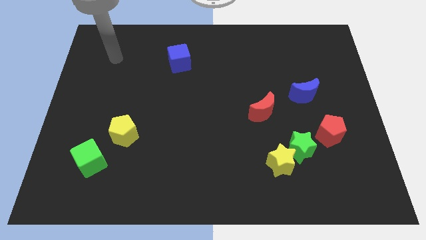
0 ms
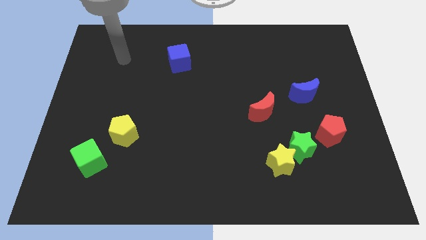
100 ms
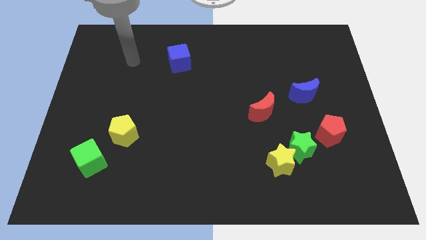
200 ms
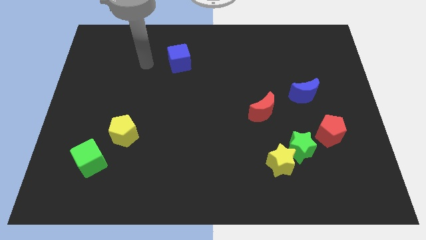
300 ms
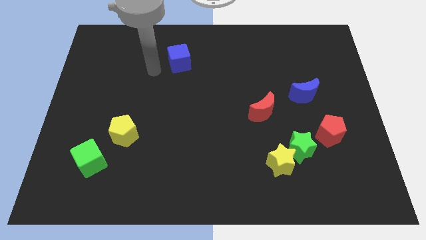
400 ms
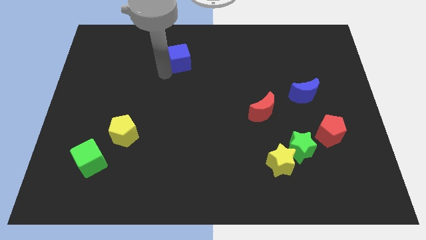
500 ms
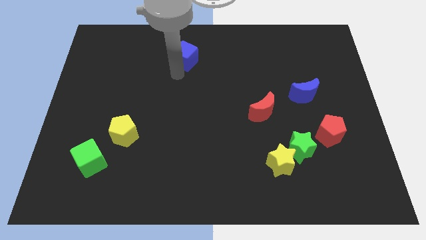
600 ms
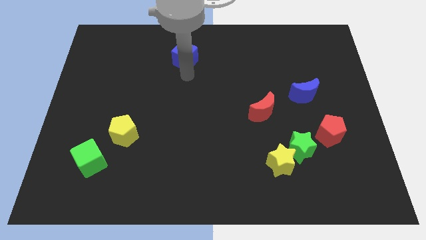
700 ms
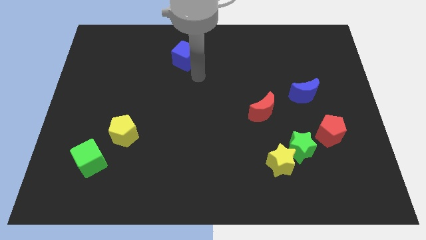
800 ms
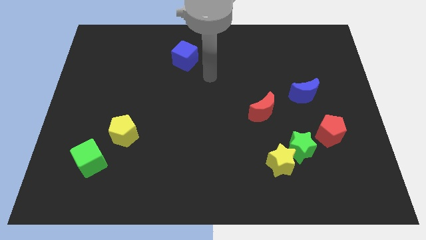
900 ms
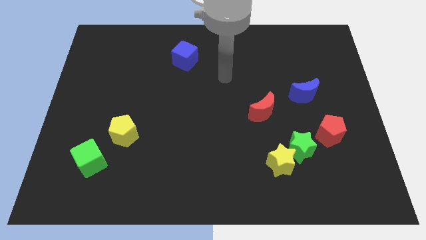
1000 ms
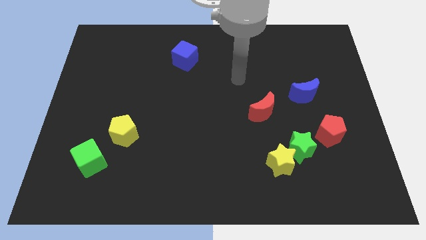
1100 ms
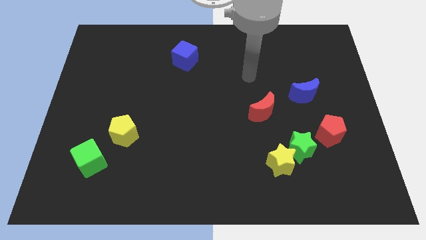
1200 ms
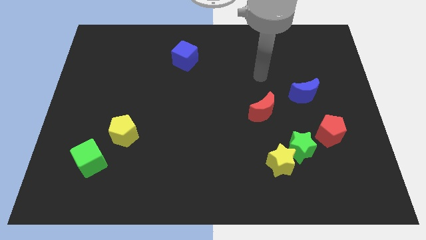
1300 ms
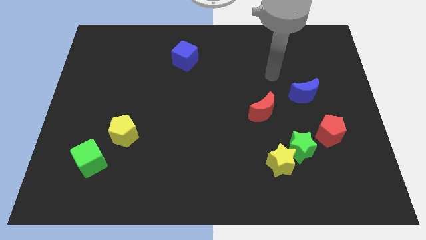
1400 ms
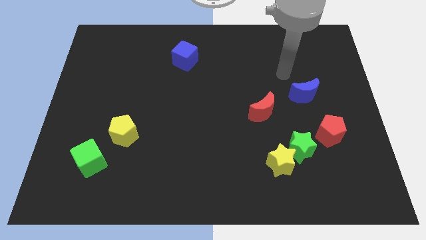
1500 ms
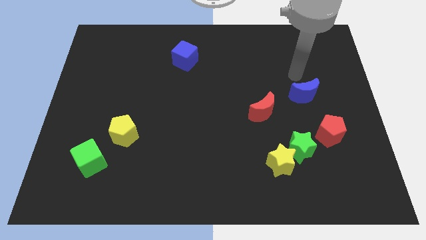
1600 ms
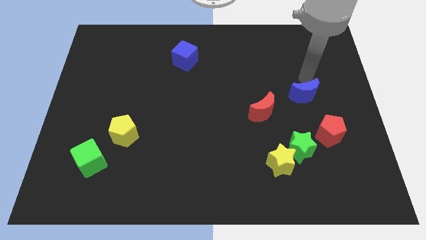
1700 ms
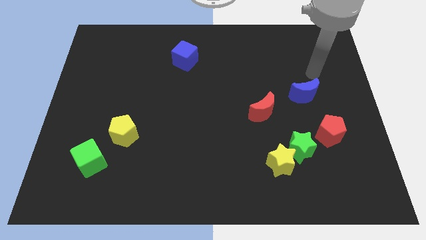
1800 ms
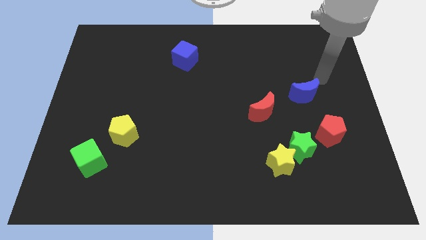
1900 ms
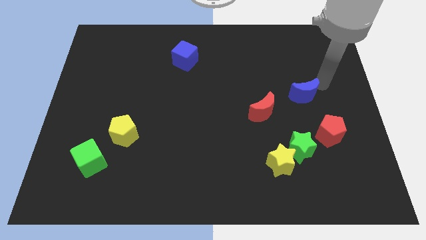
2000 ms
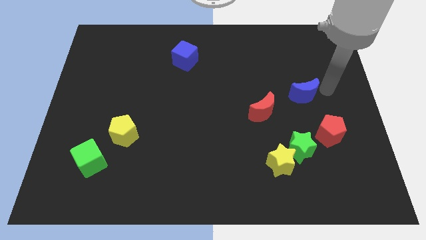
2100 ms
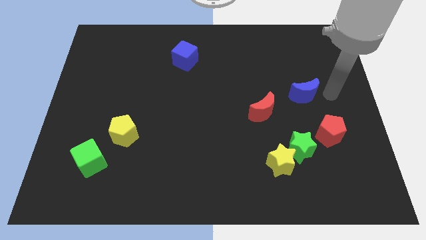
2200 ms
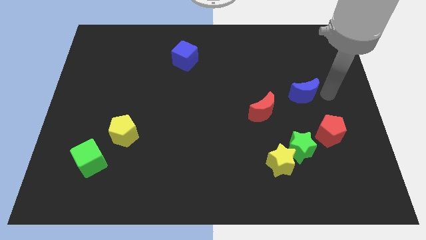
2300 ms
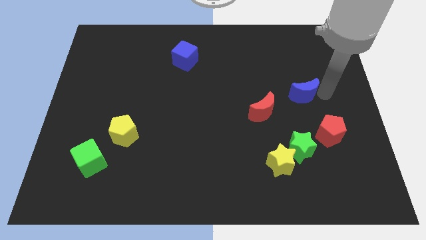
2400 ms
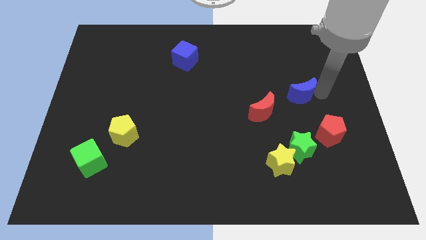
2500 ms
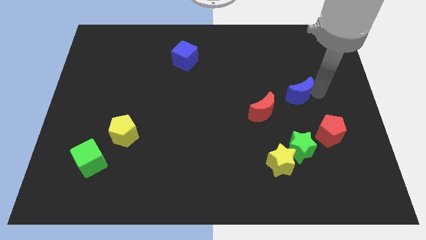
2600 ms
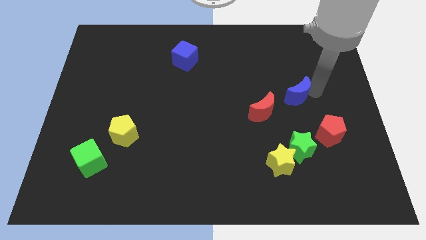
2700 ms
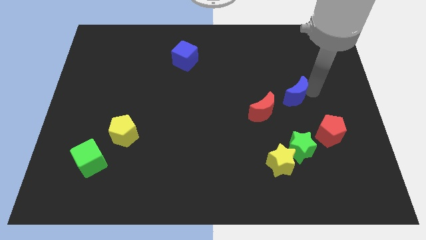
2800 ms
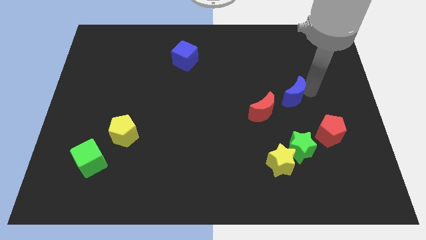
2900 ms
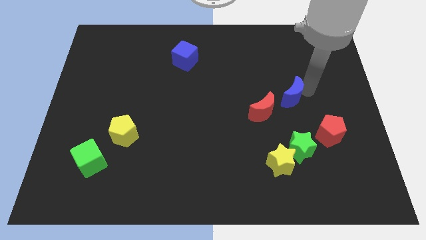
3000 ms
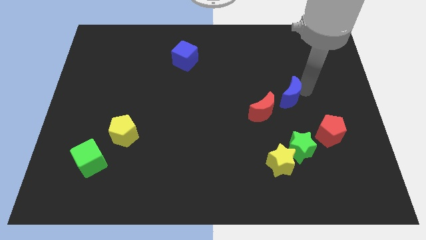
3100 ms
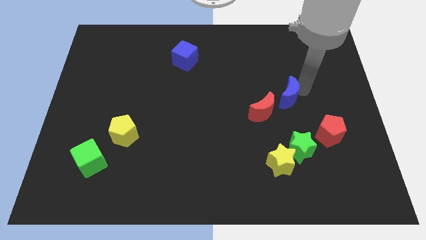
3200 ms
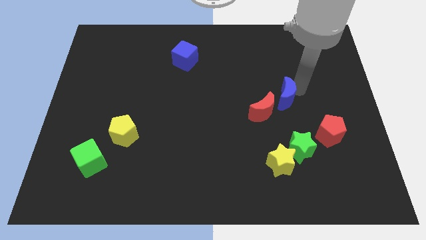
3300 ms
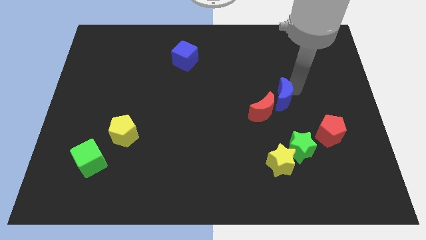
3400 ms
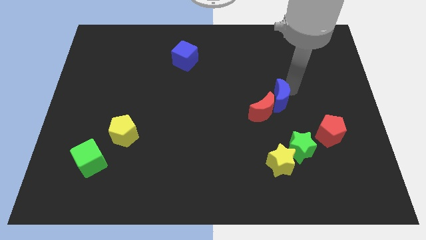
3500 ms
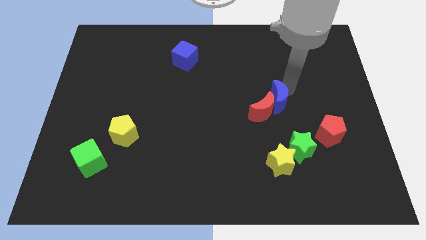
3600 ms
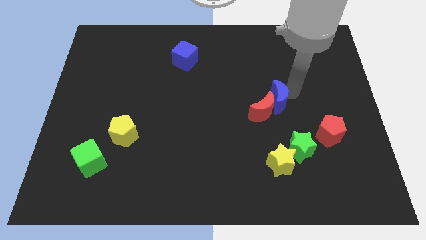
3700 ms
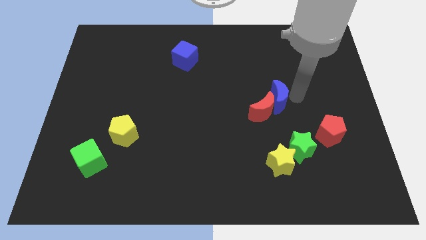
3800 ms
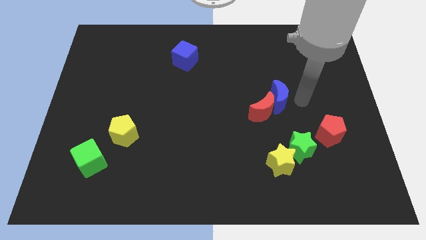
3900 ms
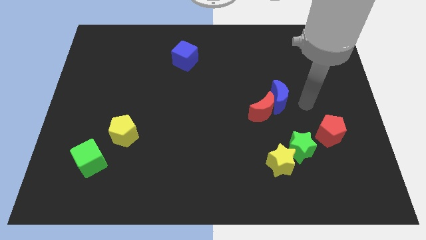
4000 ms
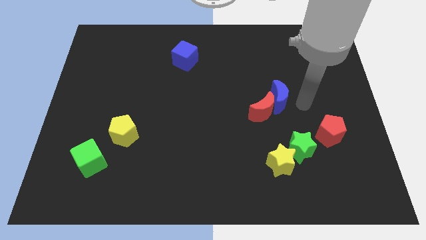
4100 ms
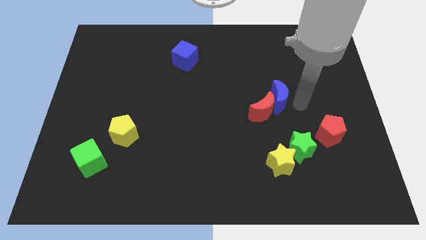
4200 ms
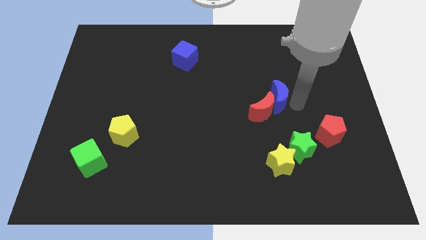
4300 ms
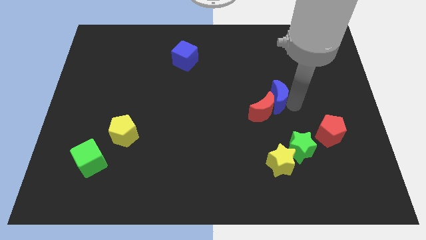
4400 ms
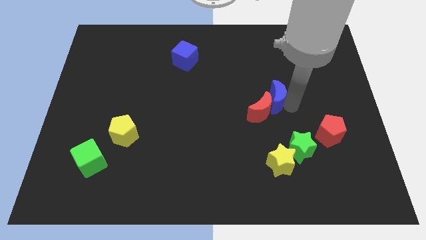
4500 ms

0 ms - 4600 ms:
slightly move the blue moon to the left

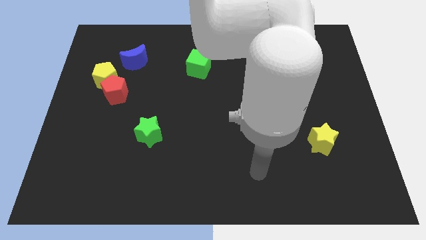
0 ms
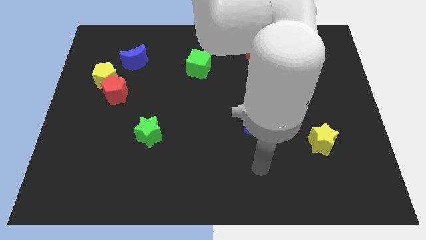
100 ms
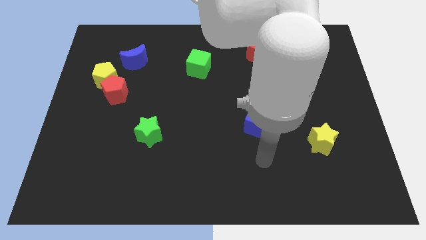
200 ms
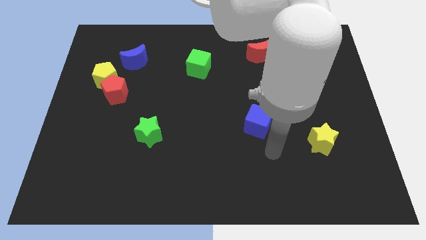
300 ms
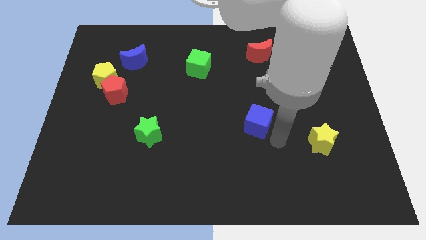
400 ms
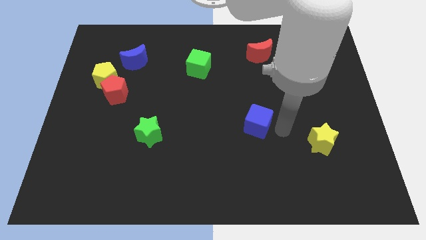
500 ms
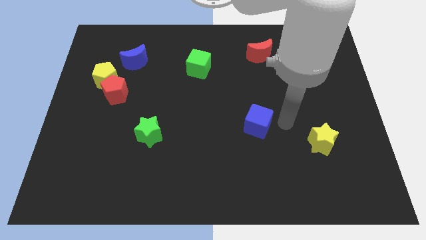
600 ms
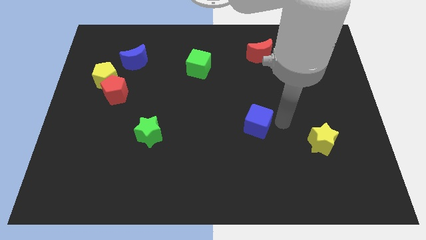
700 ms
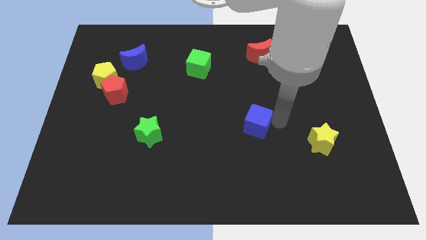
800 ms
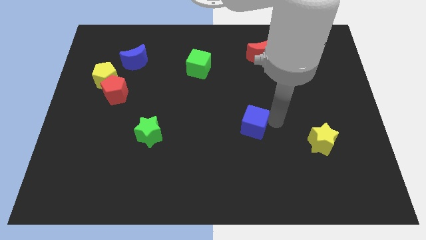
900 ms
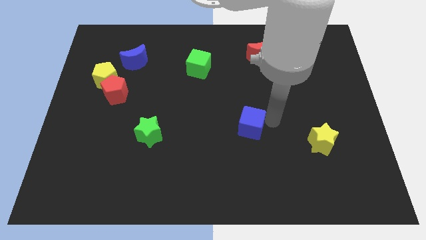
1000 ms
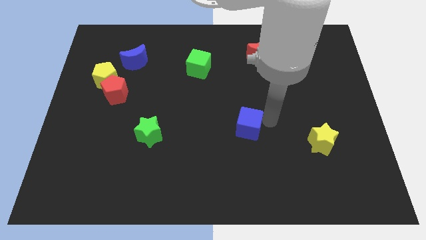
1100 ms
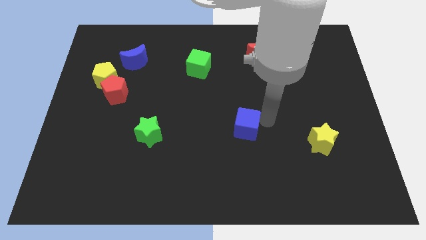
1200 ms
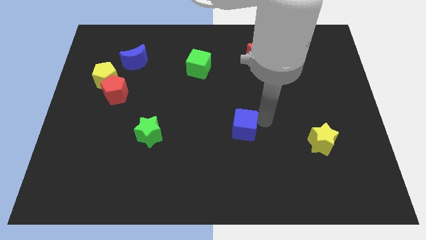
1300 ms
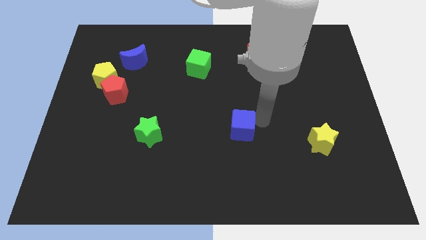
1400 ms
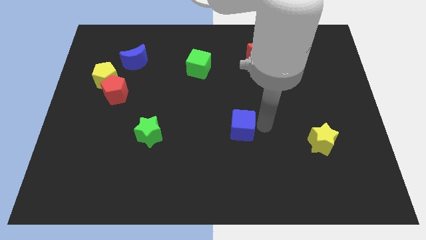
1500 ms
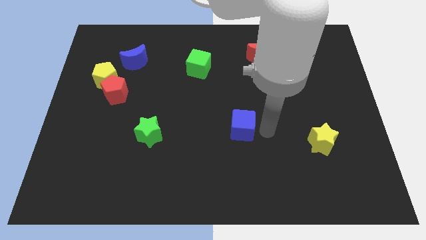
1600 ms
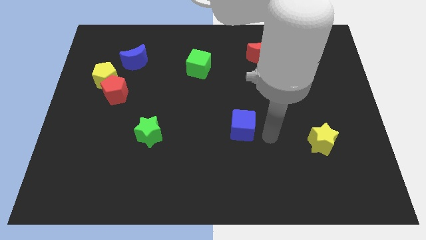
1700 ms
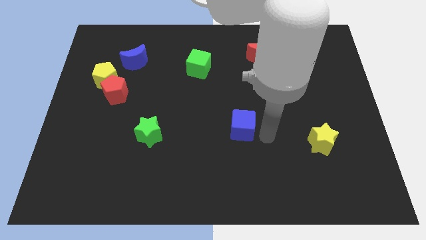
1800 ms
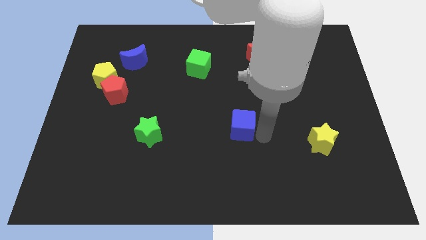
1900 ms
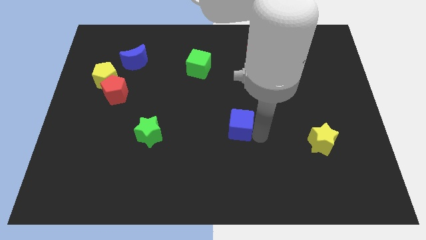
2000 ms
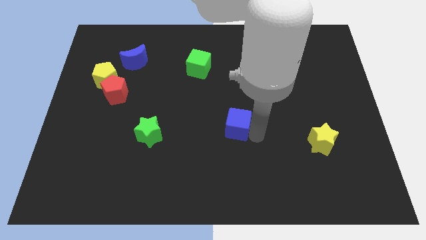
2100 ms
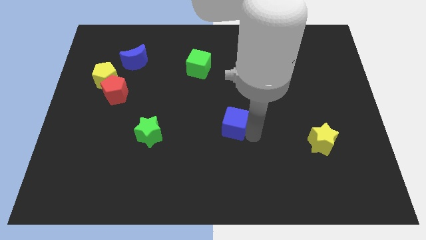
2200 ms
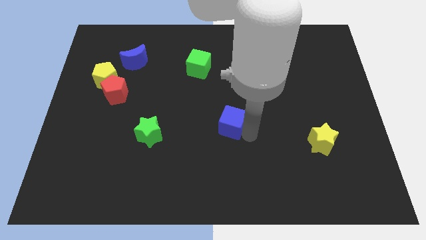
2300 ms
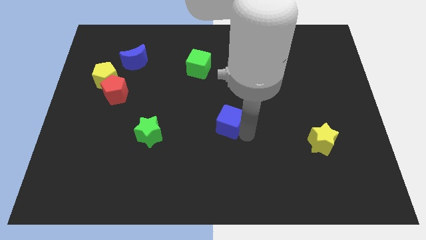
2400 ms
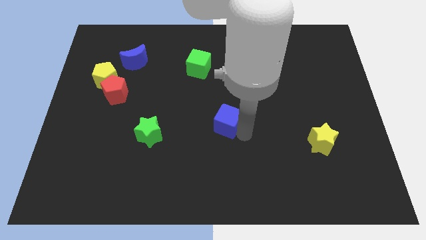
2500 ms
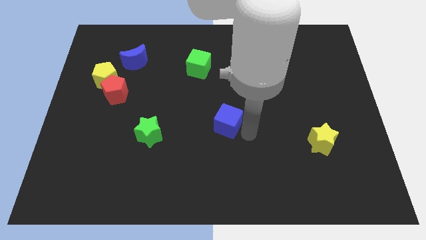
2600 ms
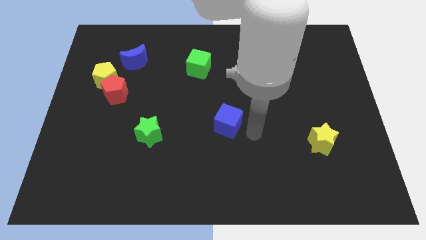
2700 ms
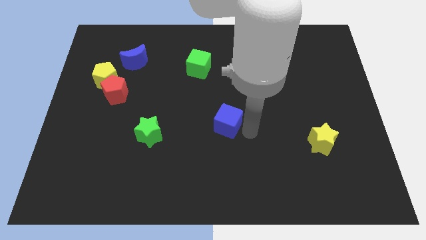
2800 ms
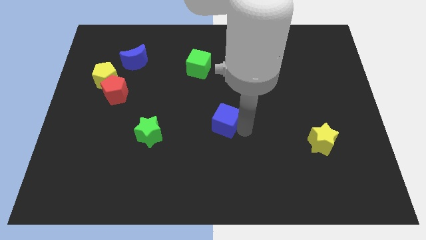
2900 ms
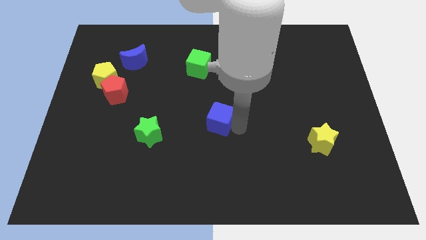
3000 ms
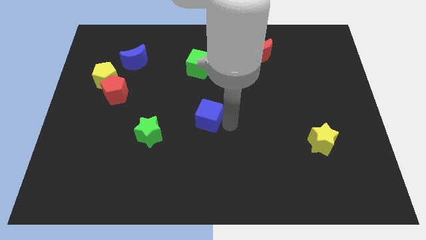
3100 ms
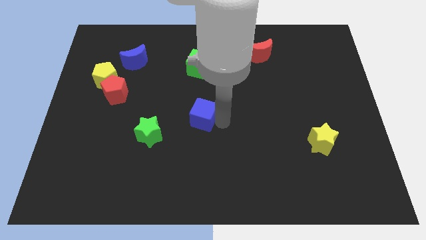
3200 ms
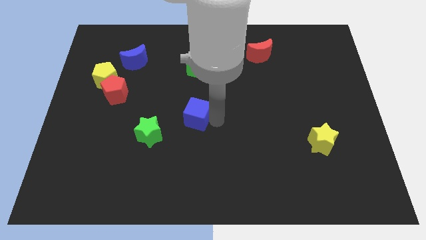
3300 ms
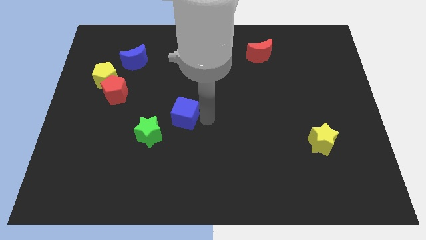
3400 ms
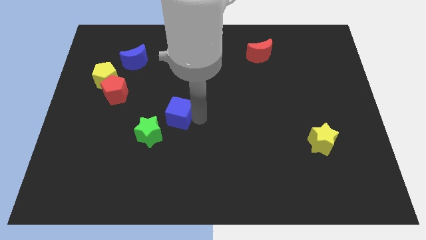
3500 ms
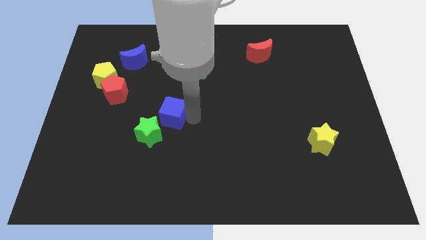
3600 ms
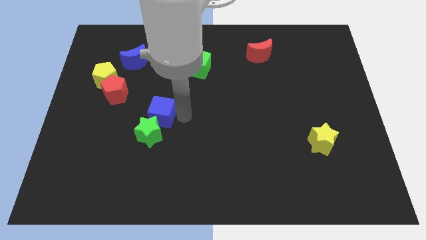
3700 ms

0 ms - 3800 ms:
move the blue cube to the left
